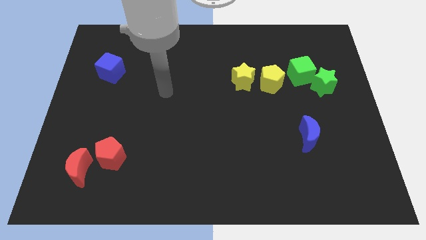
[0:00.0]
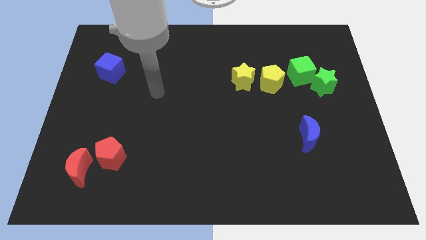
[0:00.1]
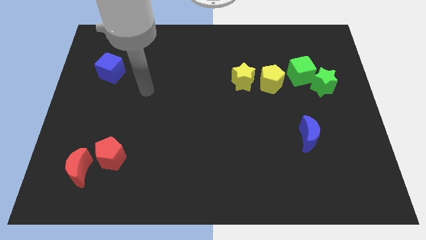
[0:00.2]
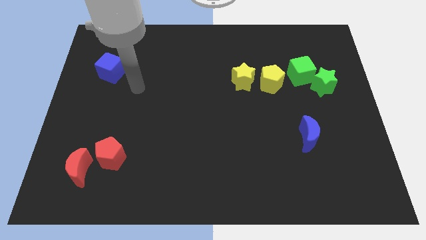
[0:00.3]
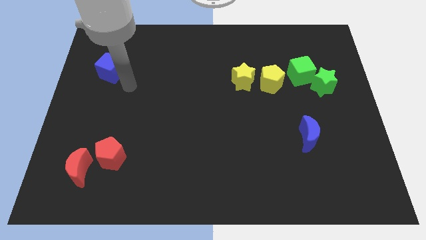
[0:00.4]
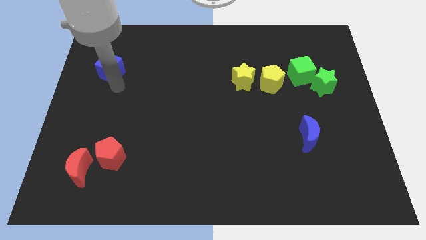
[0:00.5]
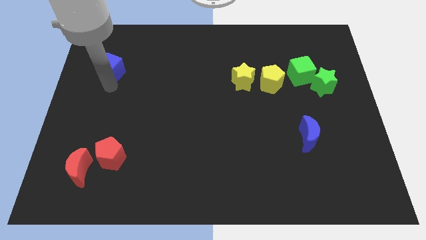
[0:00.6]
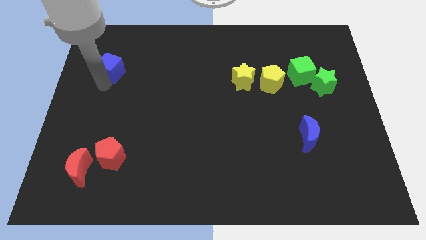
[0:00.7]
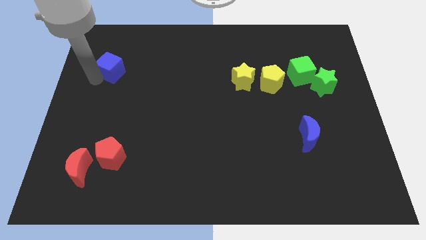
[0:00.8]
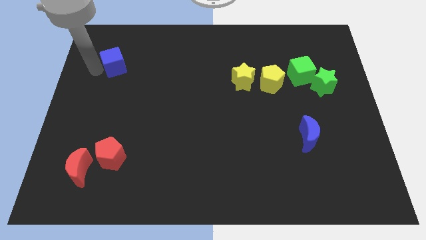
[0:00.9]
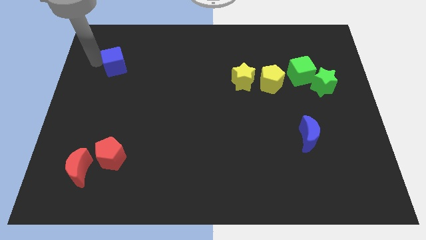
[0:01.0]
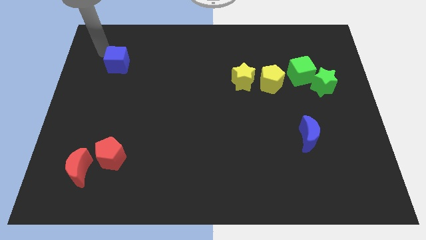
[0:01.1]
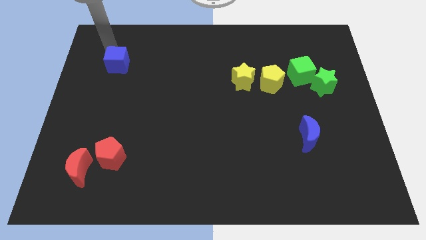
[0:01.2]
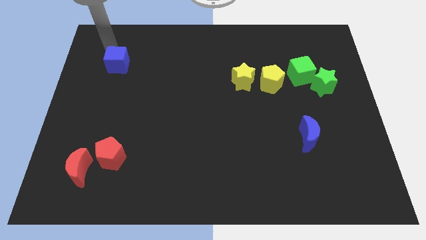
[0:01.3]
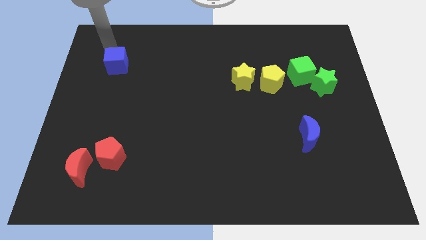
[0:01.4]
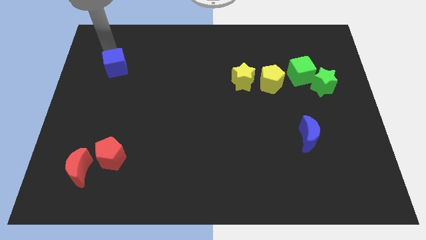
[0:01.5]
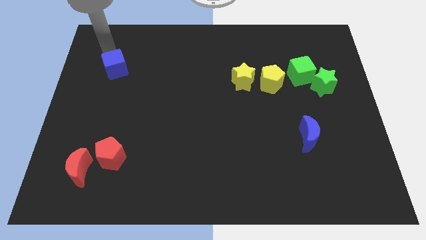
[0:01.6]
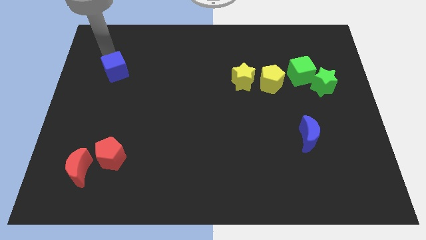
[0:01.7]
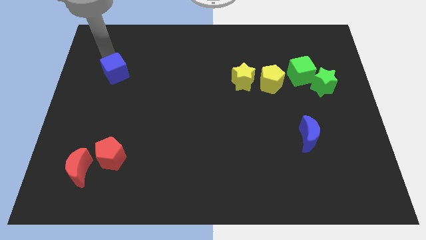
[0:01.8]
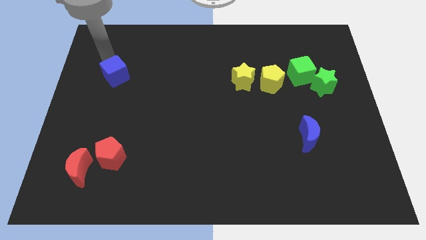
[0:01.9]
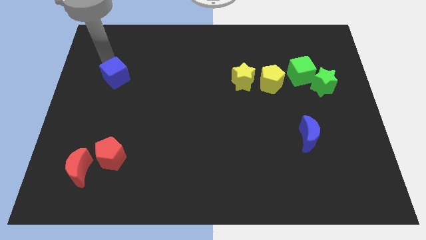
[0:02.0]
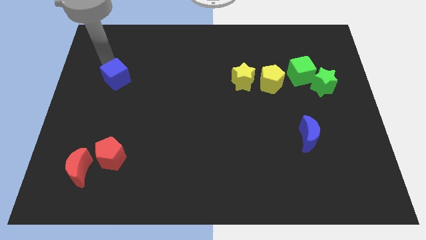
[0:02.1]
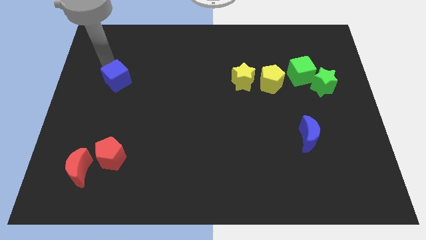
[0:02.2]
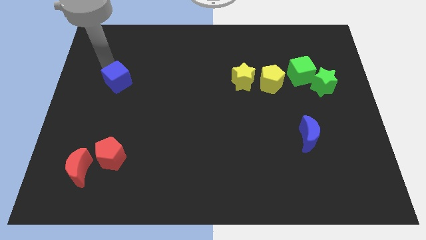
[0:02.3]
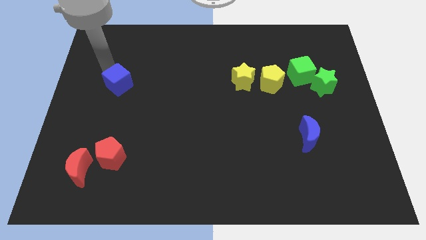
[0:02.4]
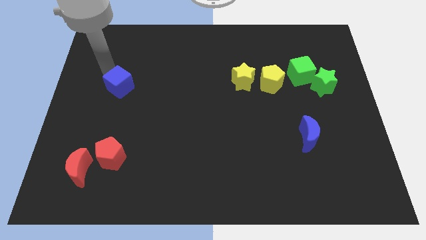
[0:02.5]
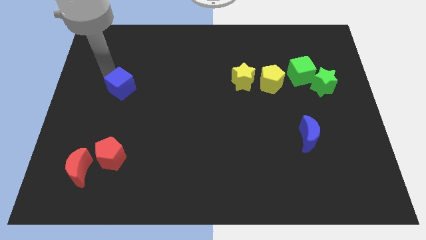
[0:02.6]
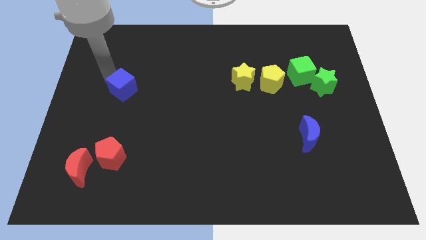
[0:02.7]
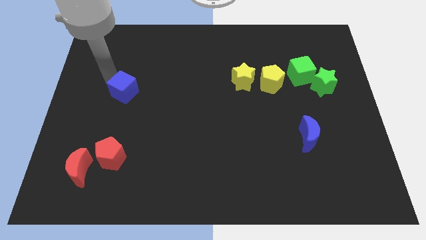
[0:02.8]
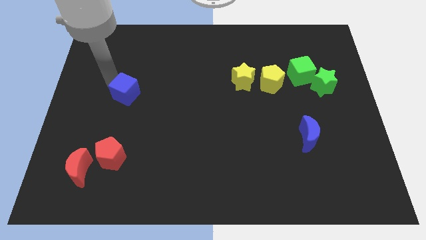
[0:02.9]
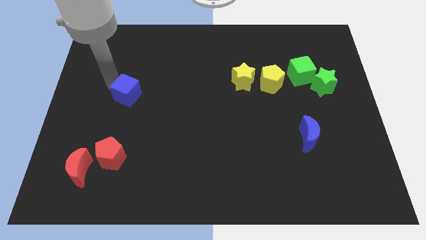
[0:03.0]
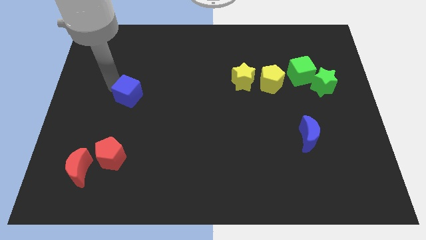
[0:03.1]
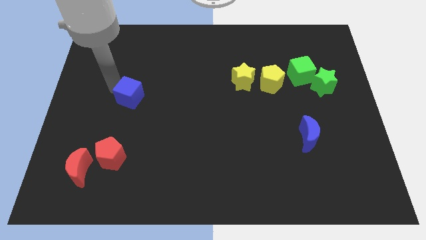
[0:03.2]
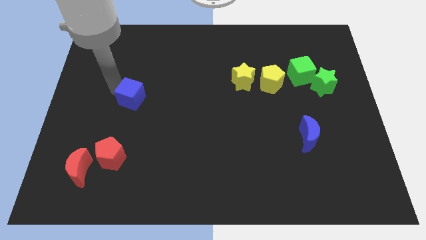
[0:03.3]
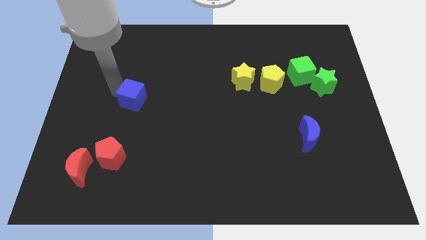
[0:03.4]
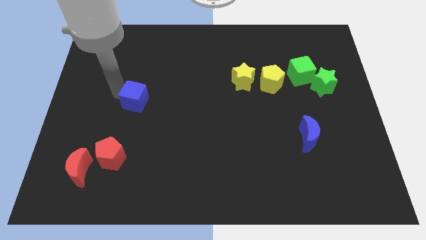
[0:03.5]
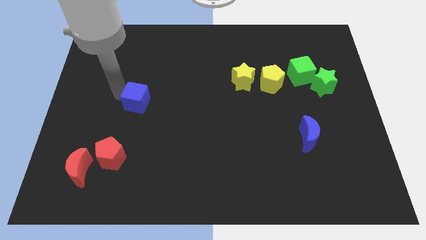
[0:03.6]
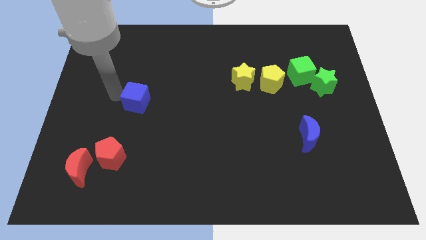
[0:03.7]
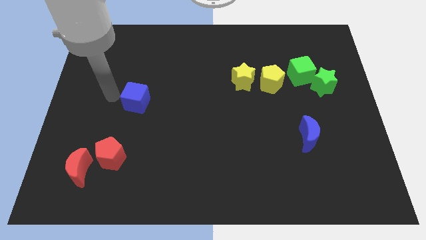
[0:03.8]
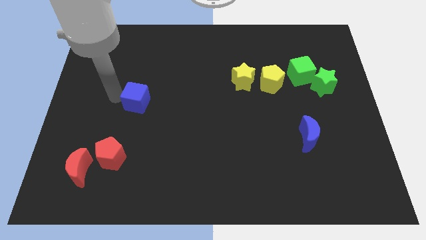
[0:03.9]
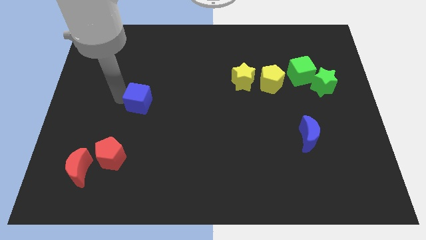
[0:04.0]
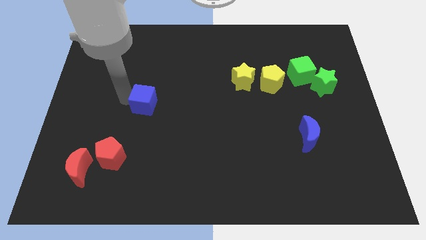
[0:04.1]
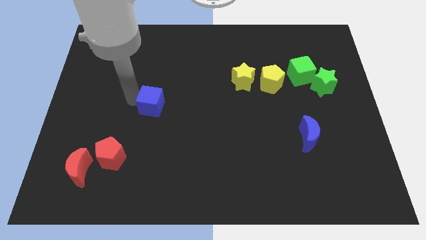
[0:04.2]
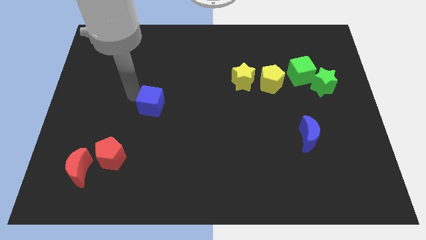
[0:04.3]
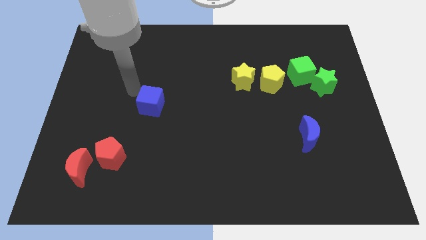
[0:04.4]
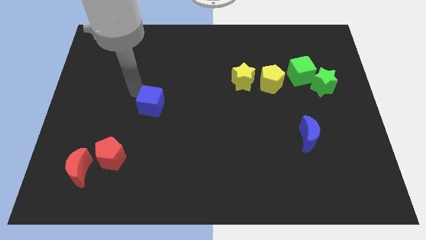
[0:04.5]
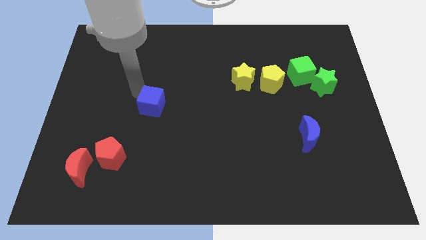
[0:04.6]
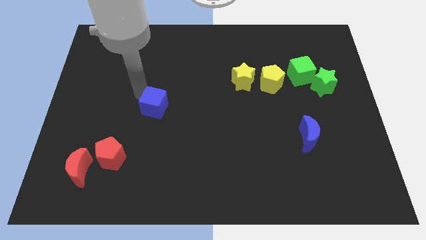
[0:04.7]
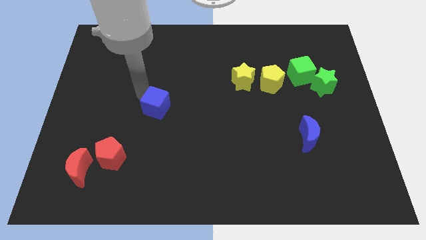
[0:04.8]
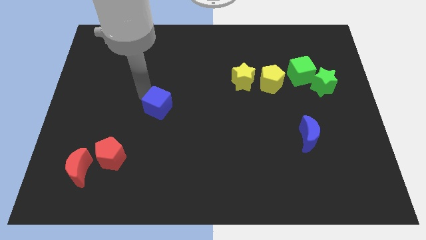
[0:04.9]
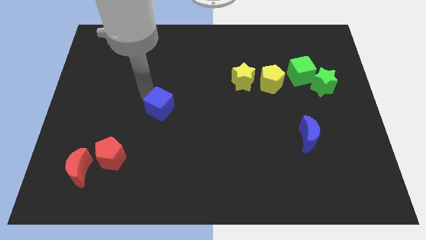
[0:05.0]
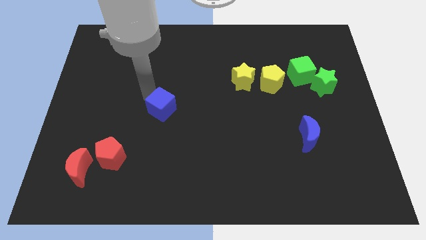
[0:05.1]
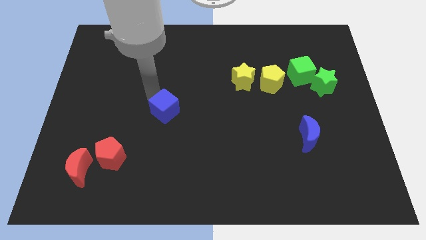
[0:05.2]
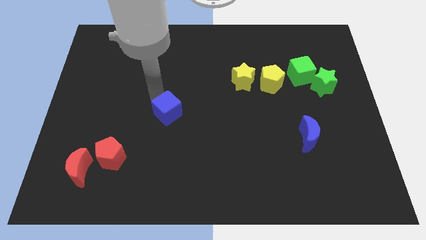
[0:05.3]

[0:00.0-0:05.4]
push the blue cube down and right diagonally

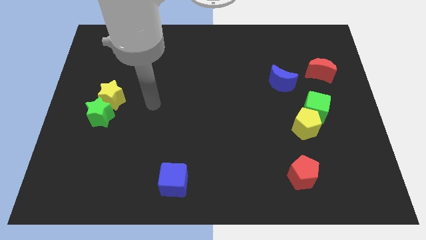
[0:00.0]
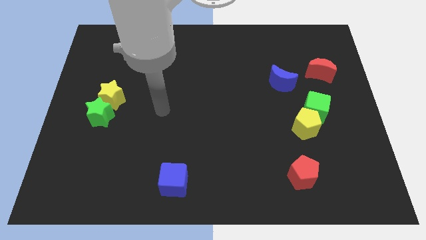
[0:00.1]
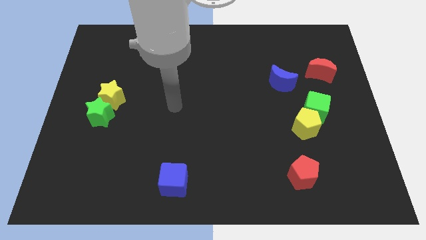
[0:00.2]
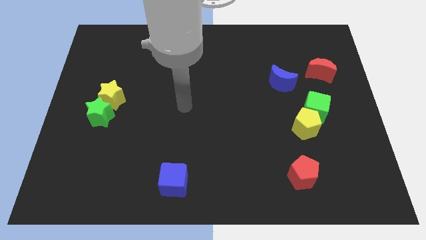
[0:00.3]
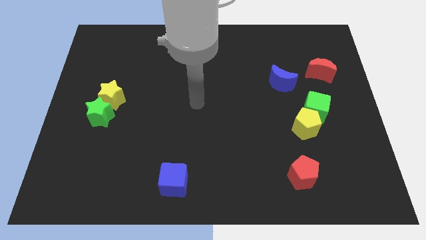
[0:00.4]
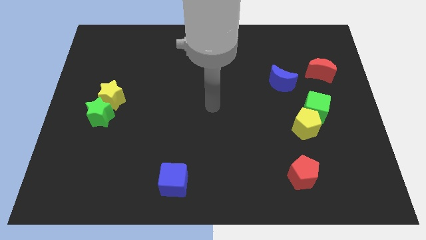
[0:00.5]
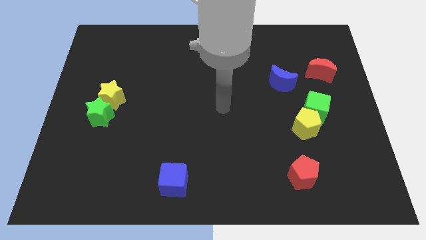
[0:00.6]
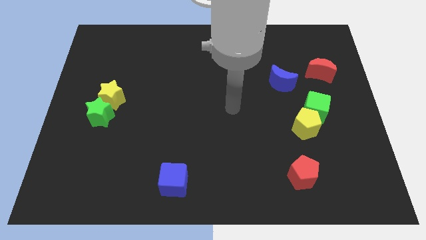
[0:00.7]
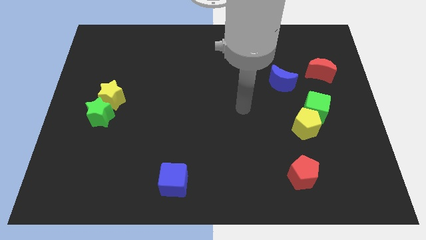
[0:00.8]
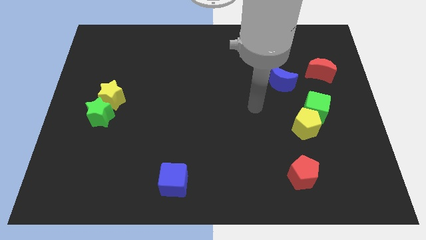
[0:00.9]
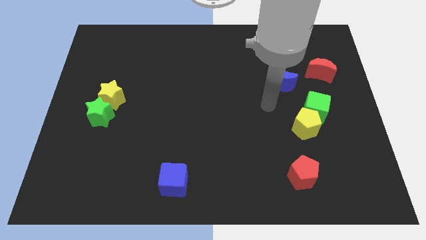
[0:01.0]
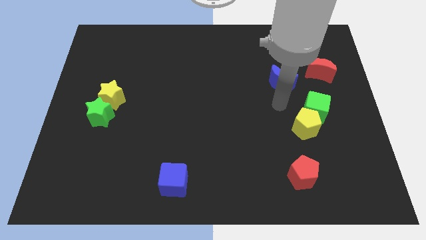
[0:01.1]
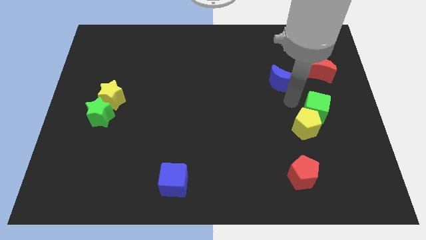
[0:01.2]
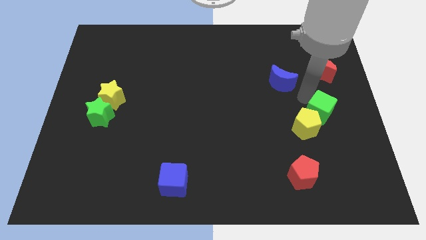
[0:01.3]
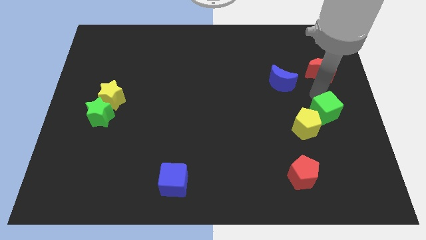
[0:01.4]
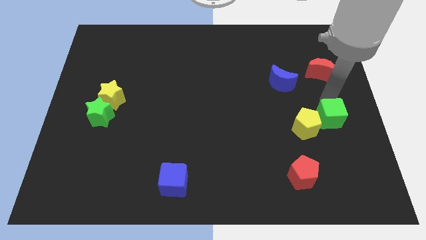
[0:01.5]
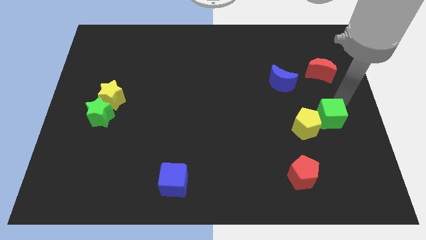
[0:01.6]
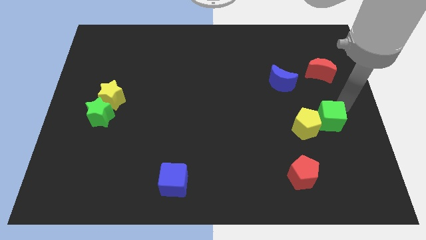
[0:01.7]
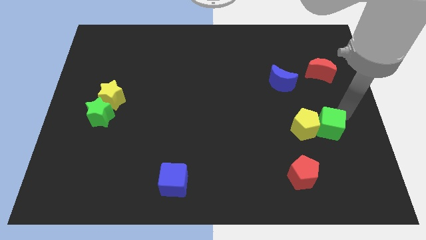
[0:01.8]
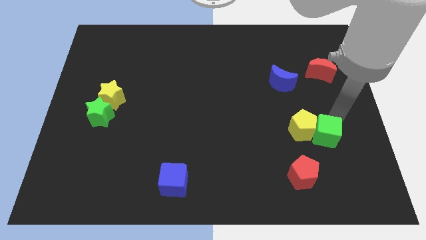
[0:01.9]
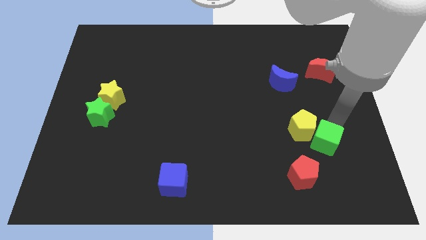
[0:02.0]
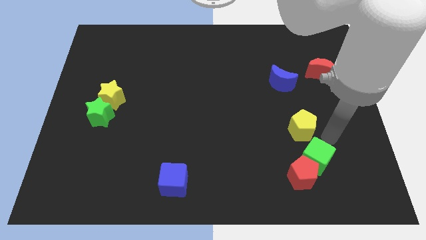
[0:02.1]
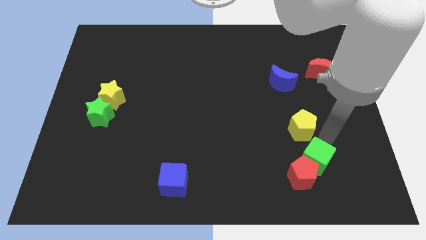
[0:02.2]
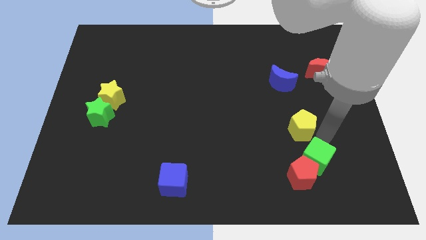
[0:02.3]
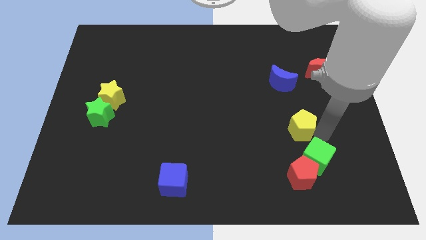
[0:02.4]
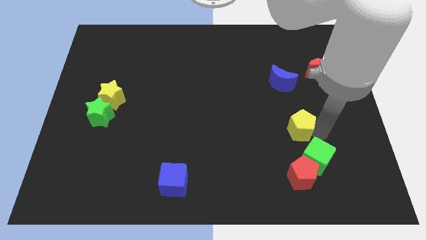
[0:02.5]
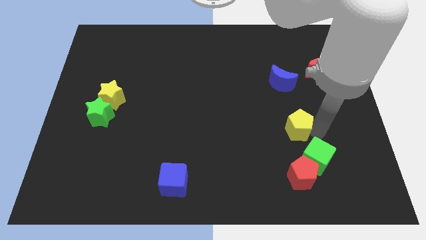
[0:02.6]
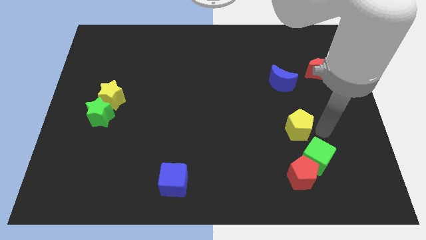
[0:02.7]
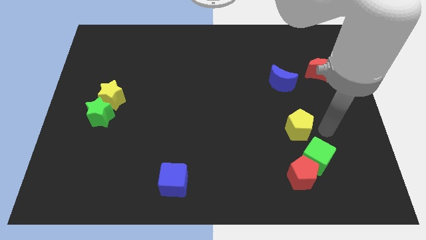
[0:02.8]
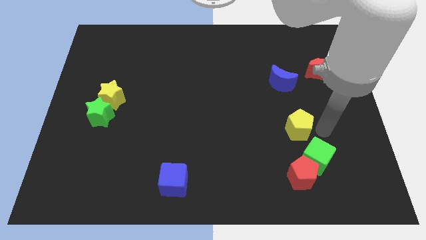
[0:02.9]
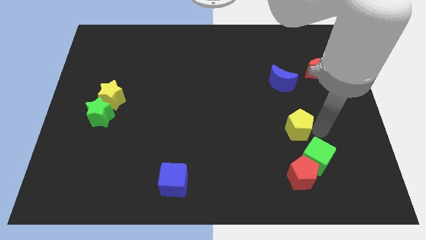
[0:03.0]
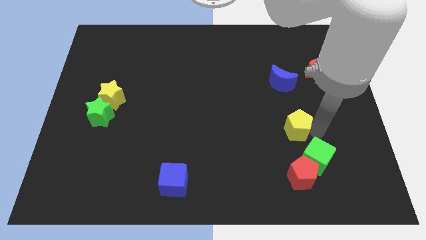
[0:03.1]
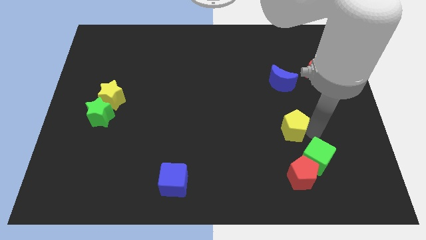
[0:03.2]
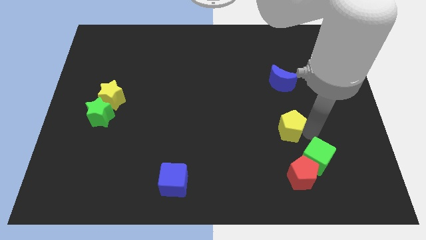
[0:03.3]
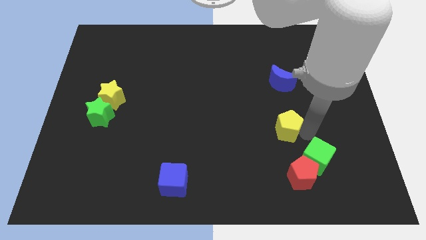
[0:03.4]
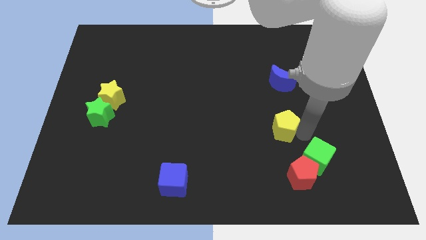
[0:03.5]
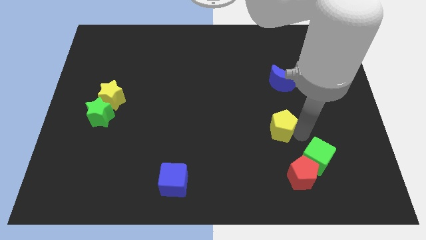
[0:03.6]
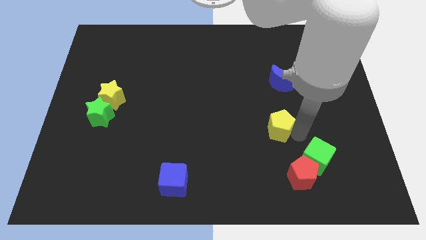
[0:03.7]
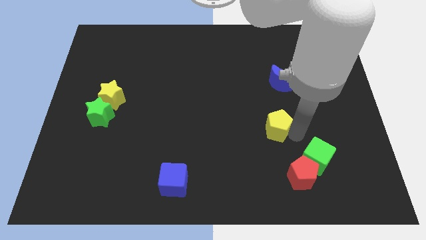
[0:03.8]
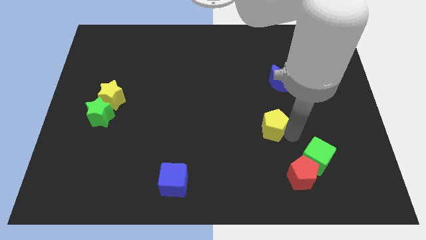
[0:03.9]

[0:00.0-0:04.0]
slide the yellow pentagon to the left slightly
